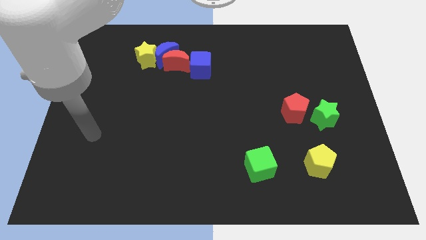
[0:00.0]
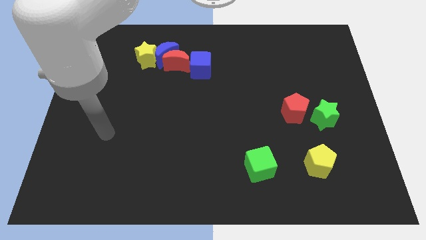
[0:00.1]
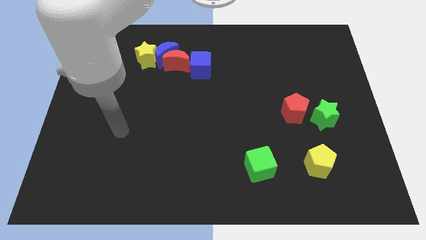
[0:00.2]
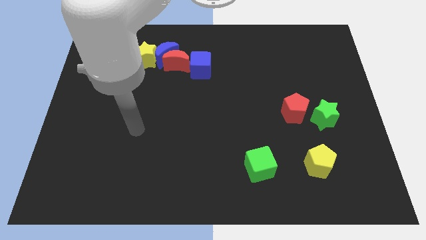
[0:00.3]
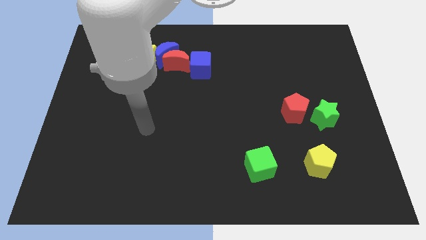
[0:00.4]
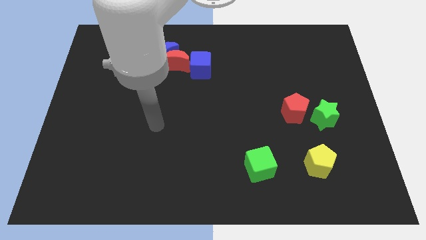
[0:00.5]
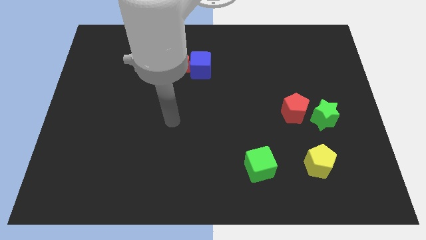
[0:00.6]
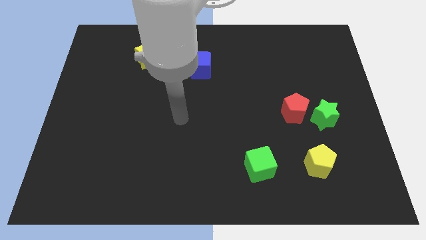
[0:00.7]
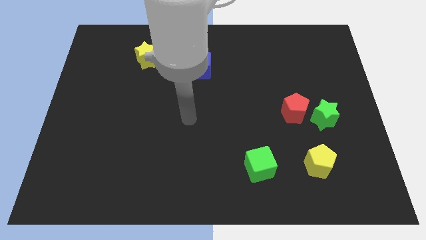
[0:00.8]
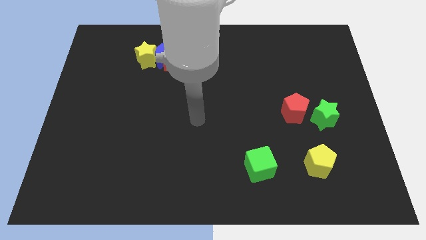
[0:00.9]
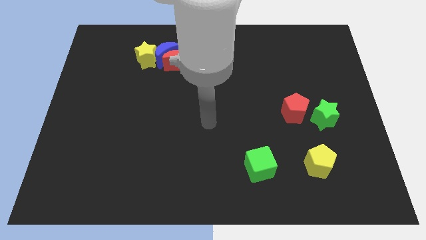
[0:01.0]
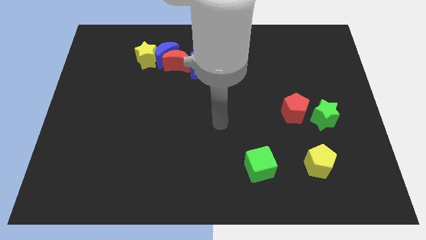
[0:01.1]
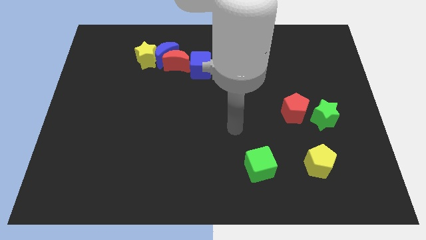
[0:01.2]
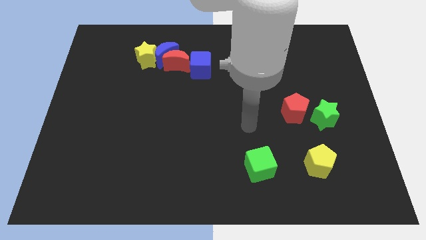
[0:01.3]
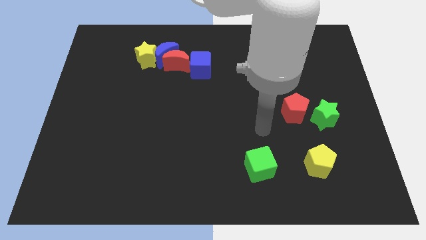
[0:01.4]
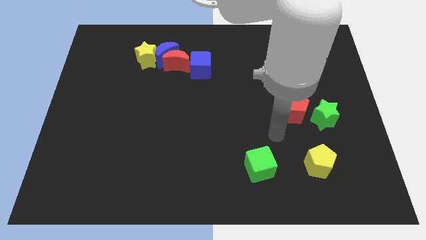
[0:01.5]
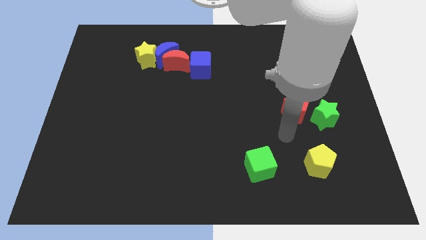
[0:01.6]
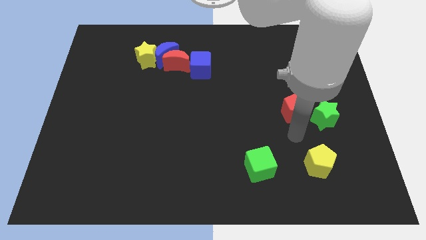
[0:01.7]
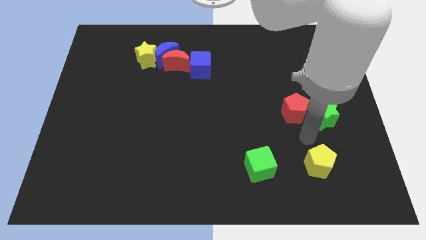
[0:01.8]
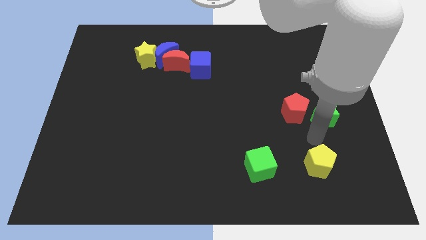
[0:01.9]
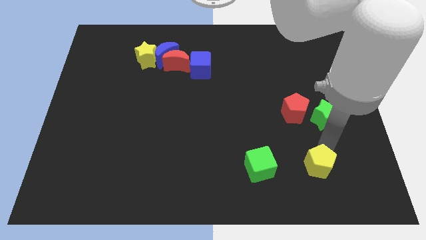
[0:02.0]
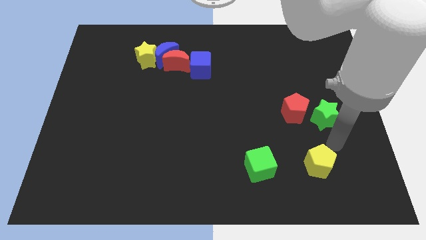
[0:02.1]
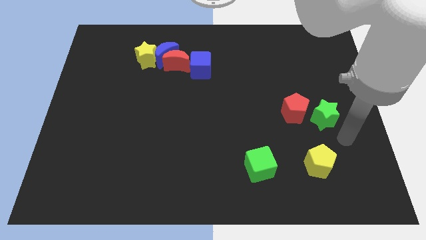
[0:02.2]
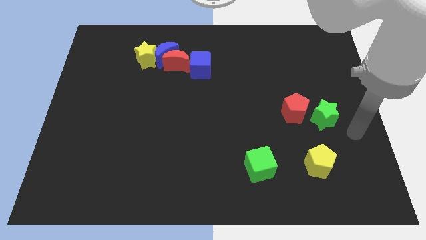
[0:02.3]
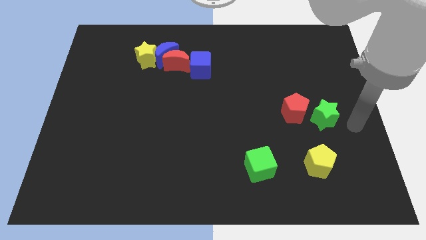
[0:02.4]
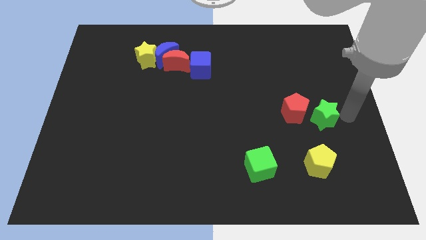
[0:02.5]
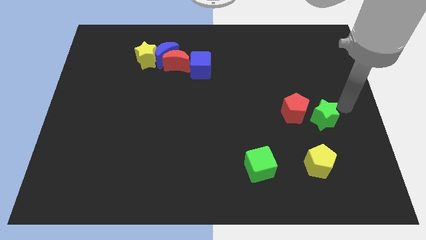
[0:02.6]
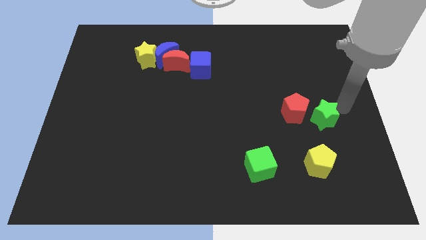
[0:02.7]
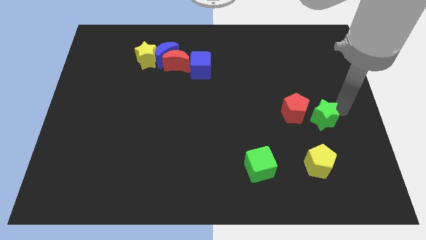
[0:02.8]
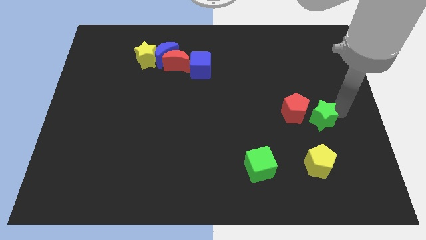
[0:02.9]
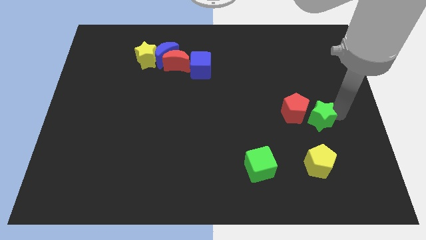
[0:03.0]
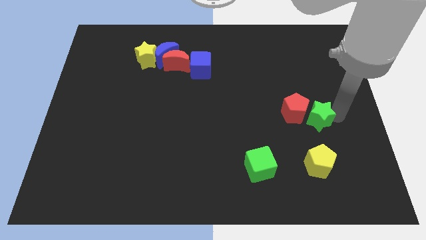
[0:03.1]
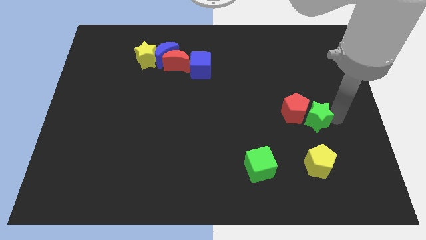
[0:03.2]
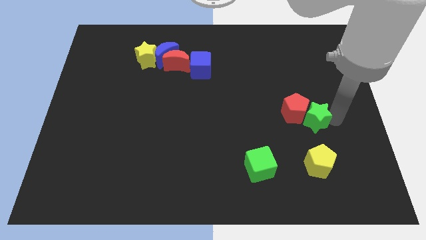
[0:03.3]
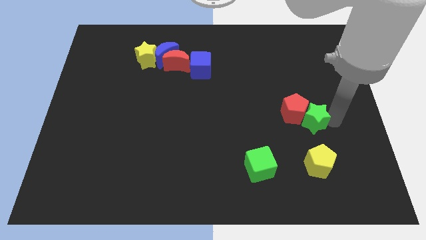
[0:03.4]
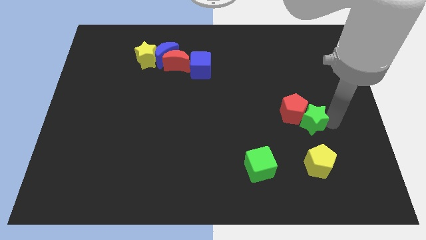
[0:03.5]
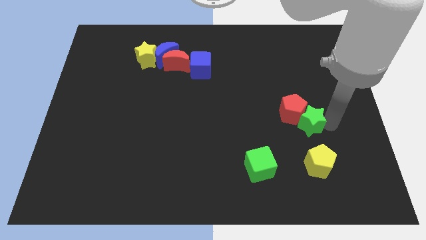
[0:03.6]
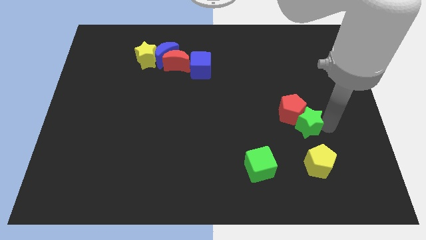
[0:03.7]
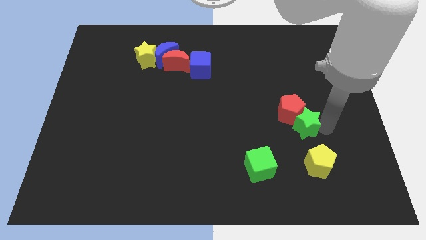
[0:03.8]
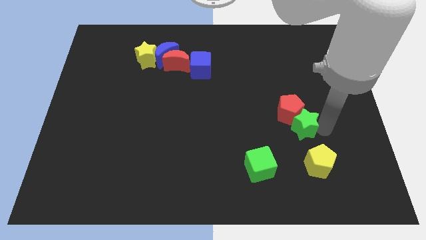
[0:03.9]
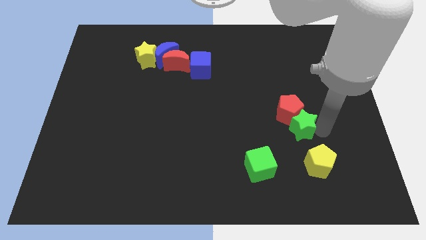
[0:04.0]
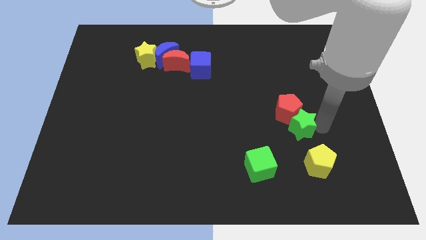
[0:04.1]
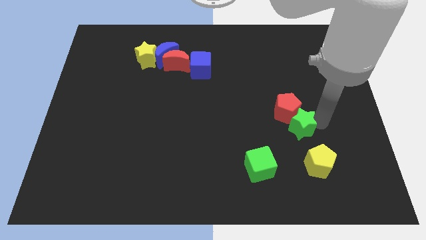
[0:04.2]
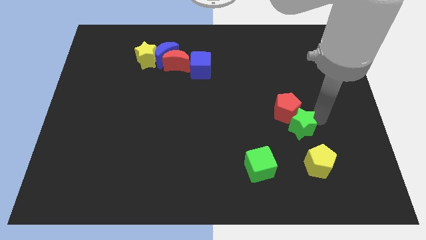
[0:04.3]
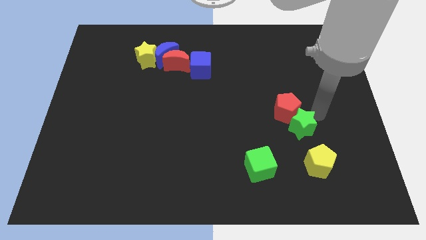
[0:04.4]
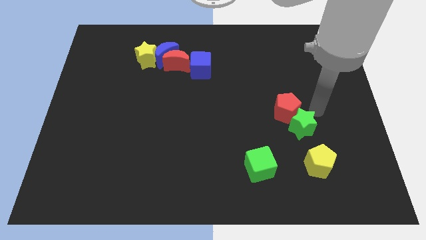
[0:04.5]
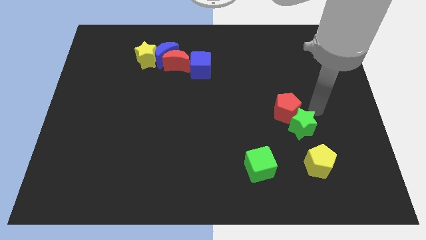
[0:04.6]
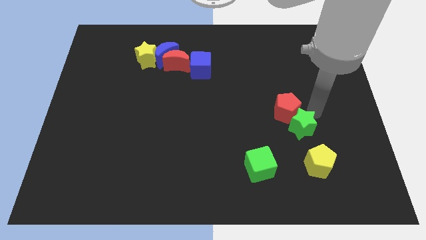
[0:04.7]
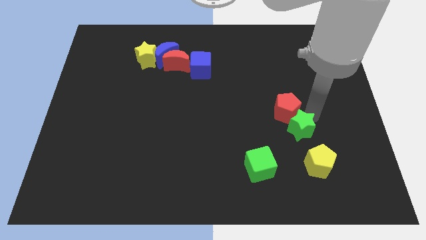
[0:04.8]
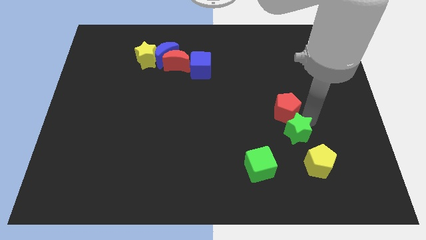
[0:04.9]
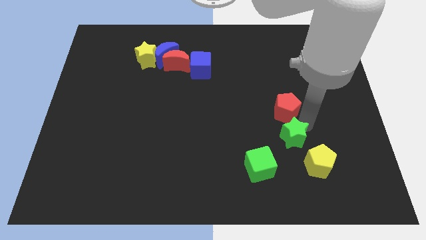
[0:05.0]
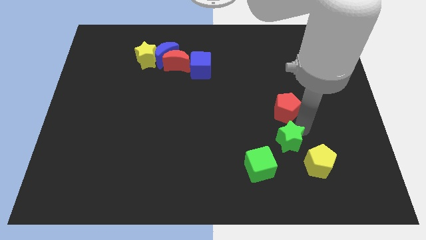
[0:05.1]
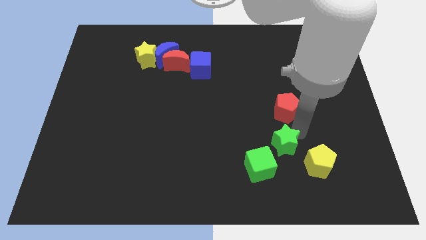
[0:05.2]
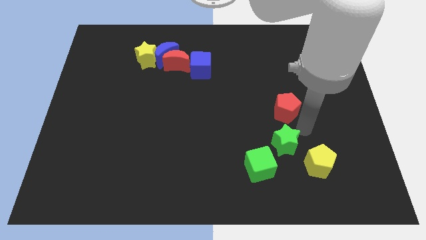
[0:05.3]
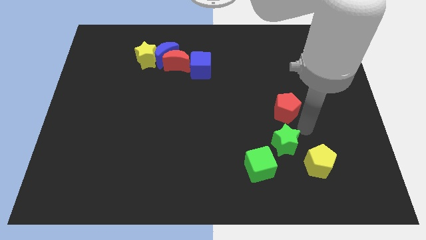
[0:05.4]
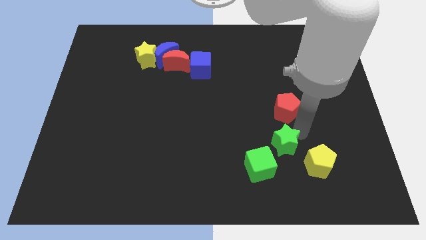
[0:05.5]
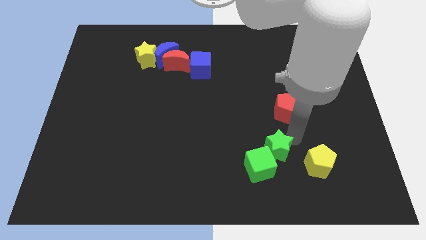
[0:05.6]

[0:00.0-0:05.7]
push the green star close to the green cube

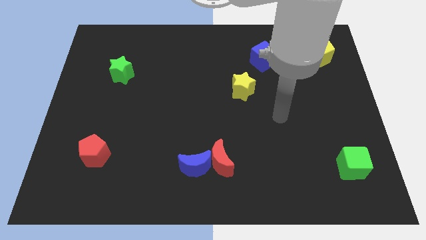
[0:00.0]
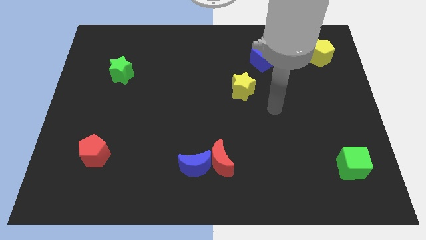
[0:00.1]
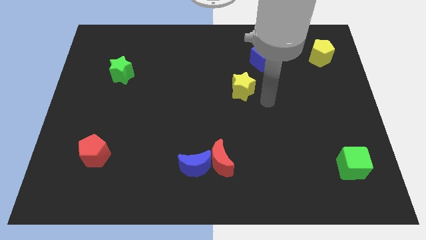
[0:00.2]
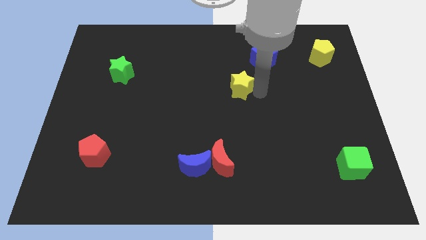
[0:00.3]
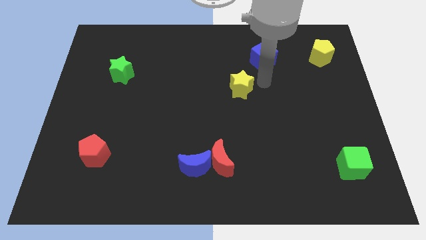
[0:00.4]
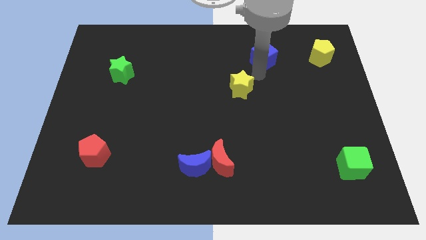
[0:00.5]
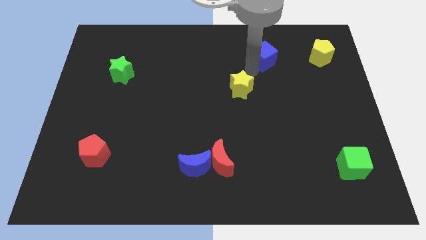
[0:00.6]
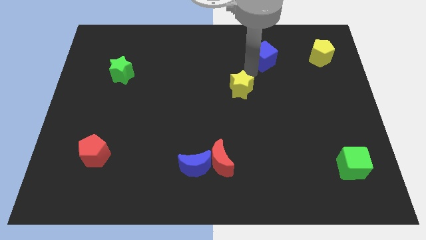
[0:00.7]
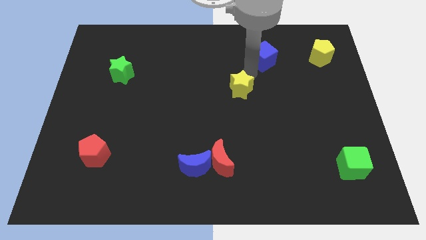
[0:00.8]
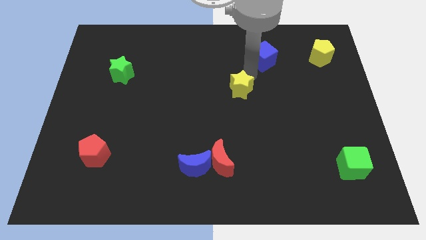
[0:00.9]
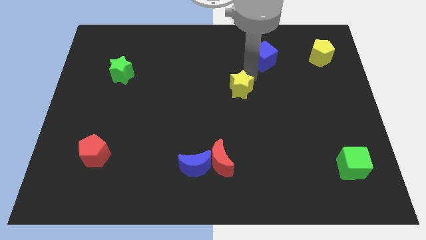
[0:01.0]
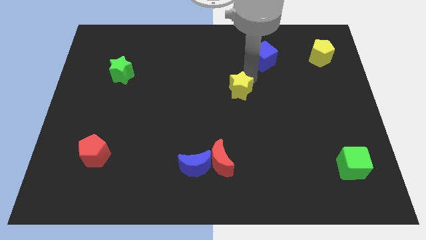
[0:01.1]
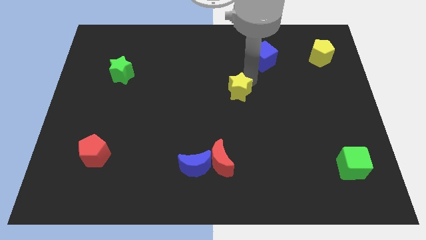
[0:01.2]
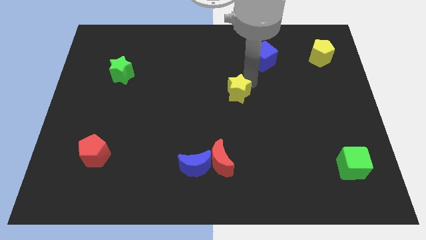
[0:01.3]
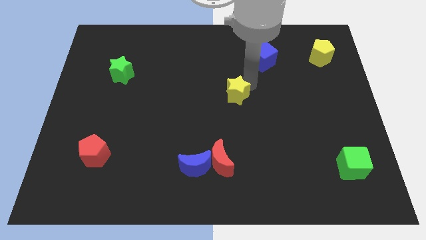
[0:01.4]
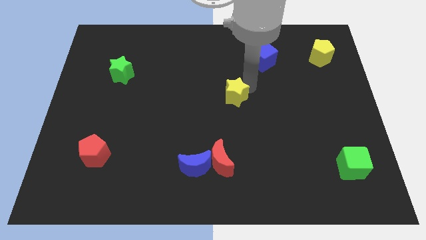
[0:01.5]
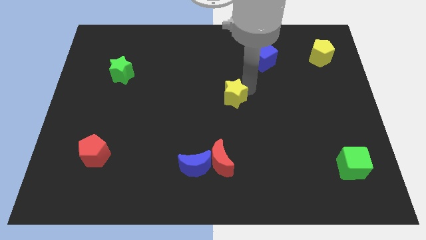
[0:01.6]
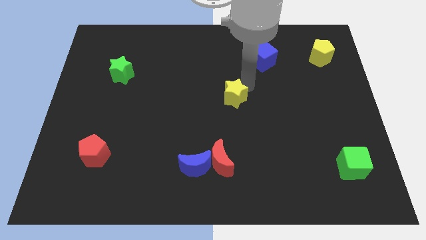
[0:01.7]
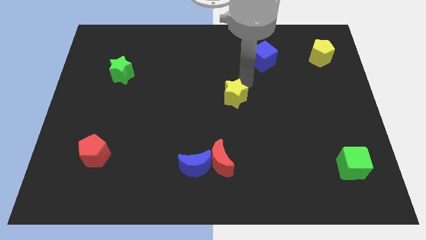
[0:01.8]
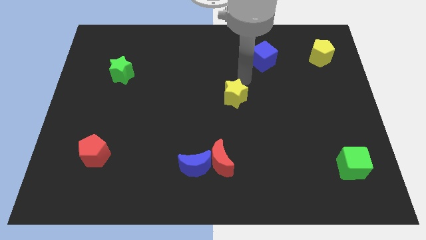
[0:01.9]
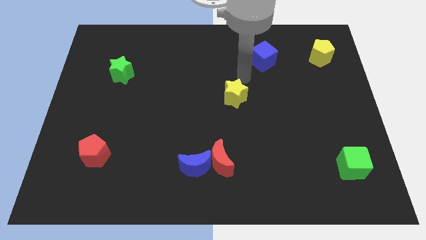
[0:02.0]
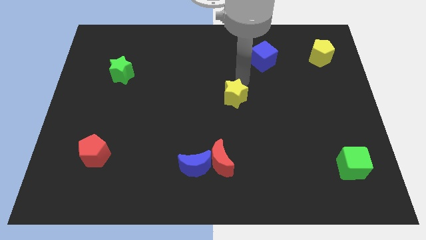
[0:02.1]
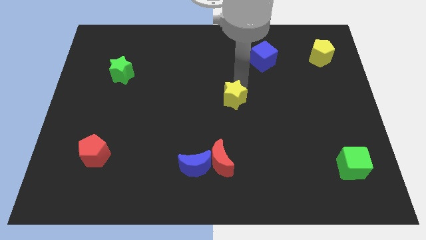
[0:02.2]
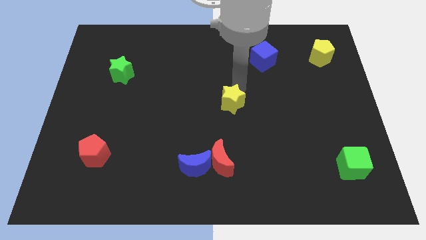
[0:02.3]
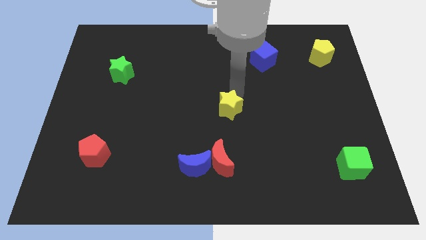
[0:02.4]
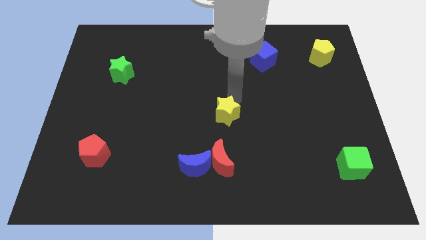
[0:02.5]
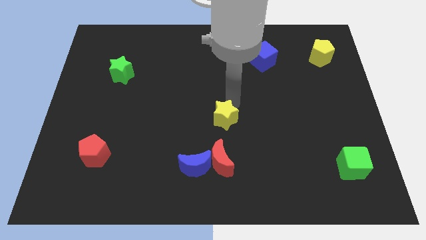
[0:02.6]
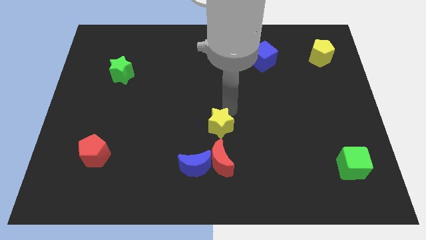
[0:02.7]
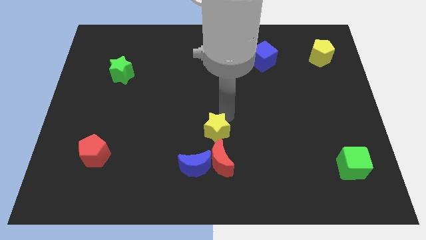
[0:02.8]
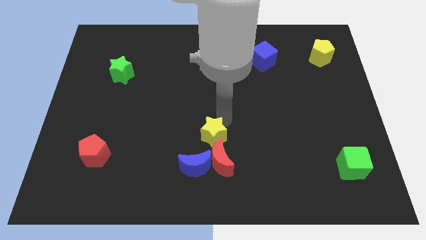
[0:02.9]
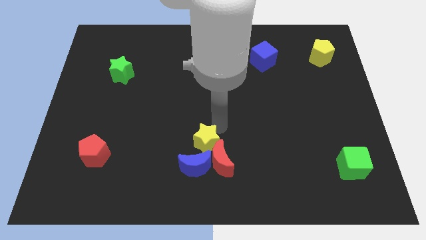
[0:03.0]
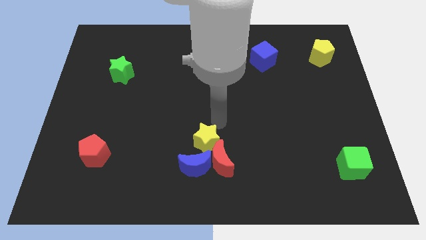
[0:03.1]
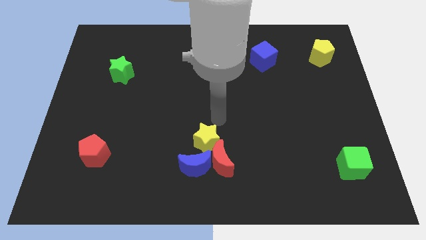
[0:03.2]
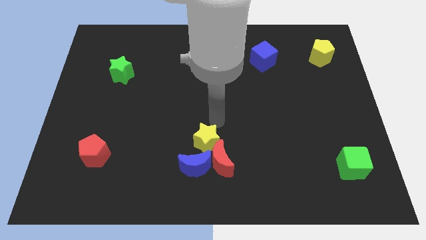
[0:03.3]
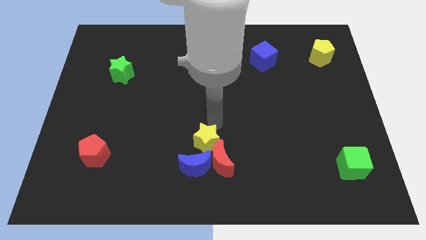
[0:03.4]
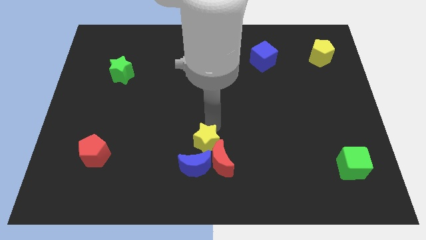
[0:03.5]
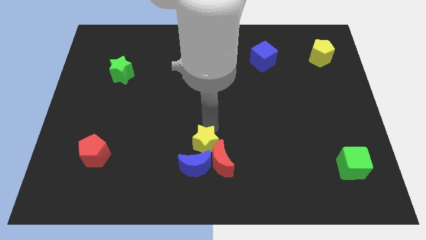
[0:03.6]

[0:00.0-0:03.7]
move the yellow star to the blue moon
